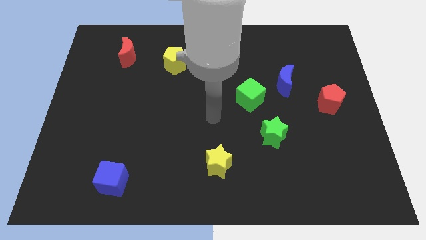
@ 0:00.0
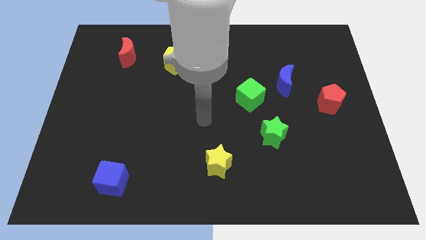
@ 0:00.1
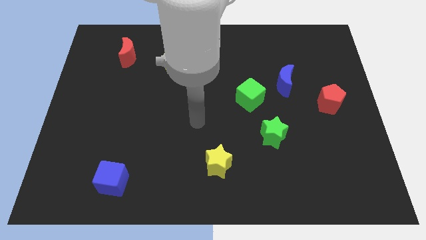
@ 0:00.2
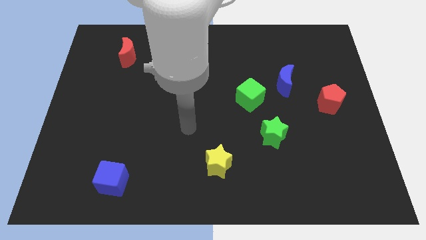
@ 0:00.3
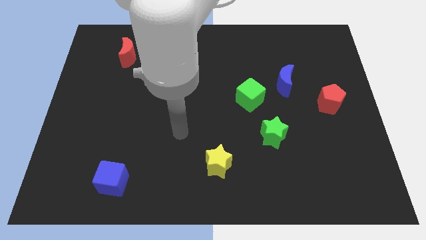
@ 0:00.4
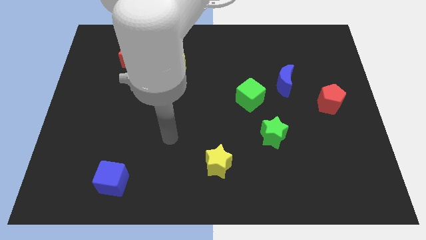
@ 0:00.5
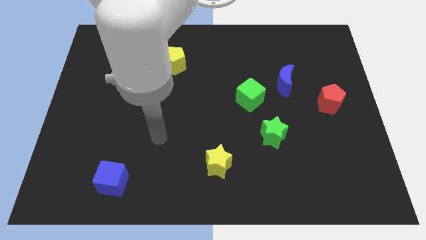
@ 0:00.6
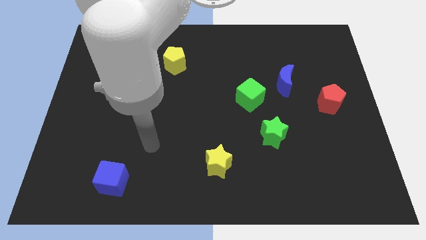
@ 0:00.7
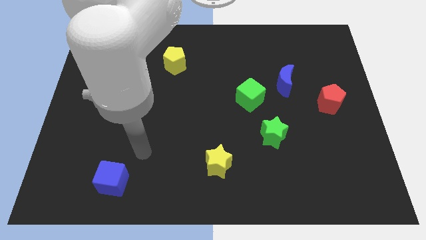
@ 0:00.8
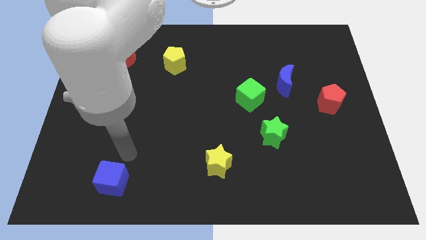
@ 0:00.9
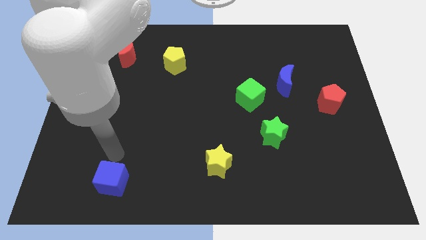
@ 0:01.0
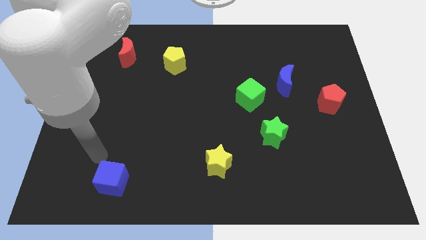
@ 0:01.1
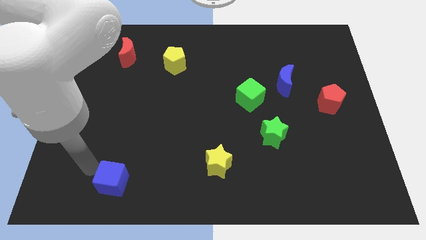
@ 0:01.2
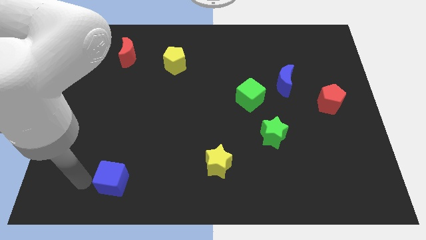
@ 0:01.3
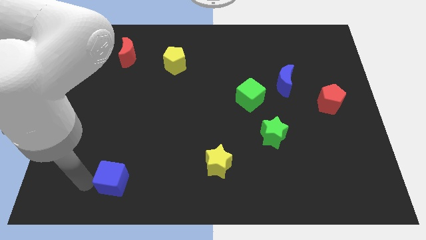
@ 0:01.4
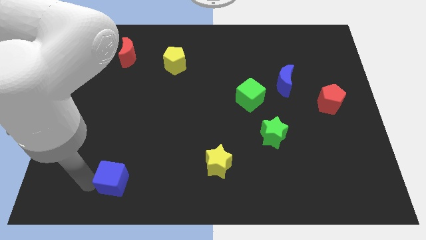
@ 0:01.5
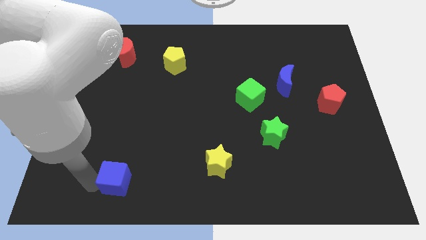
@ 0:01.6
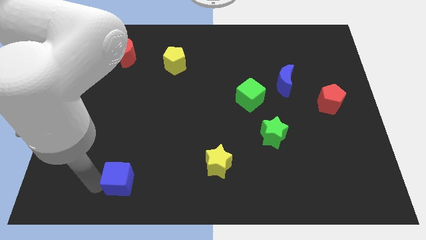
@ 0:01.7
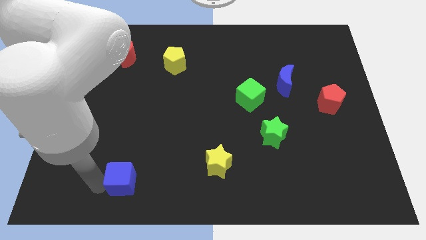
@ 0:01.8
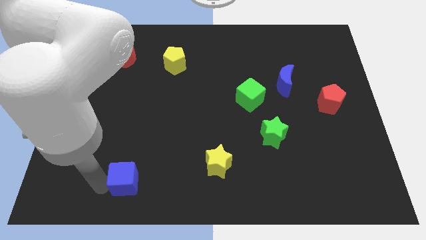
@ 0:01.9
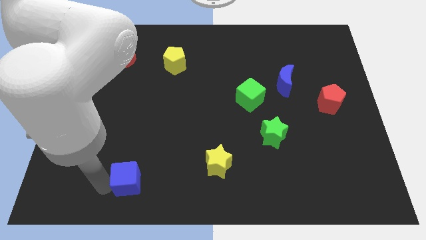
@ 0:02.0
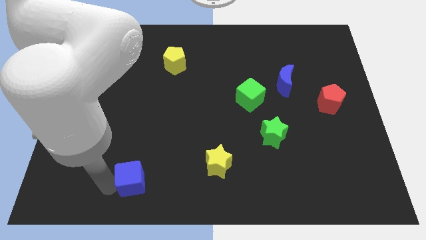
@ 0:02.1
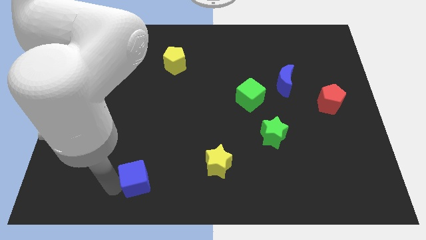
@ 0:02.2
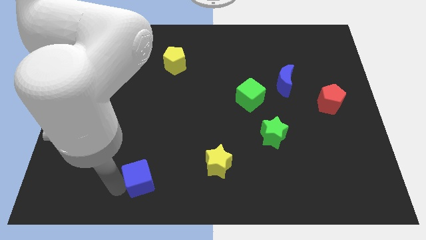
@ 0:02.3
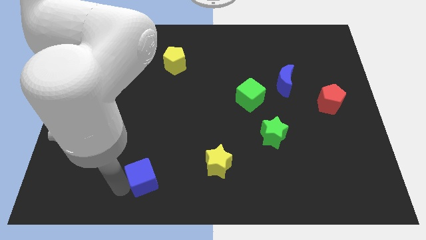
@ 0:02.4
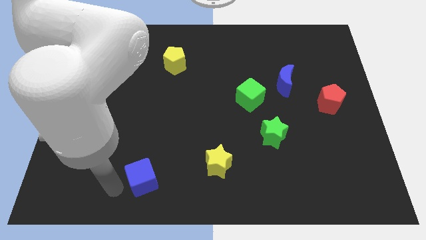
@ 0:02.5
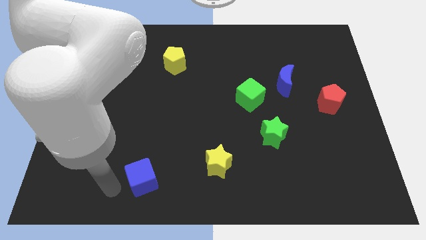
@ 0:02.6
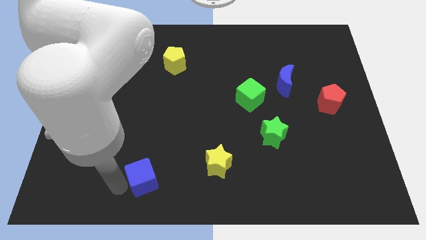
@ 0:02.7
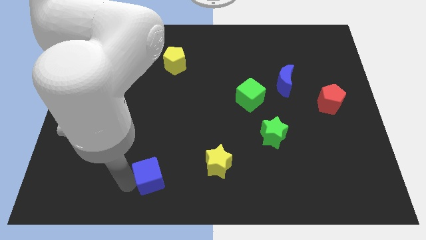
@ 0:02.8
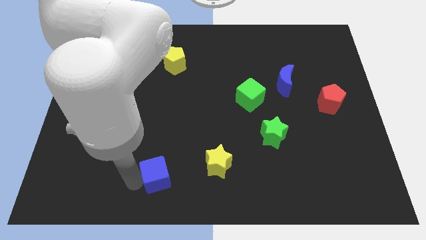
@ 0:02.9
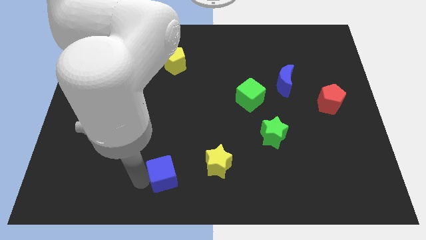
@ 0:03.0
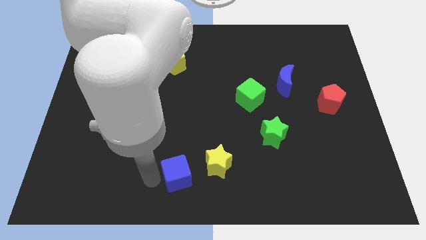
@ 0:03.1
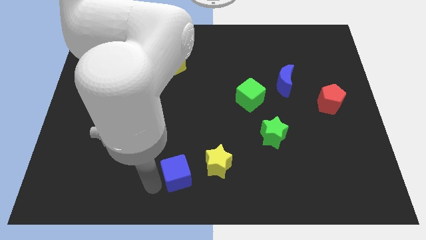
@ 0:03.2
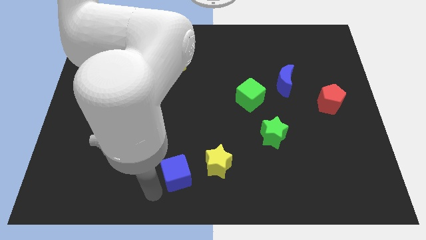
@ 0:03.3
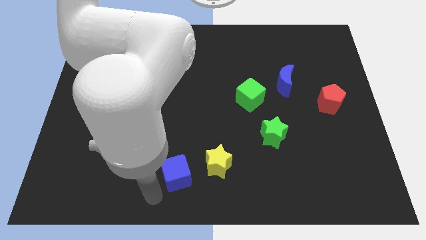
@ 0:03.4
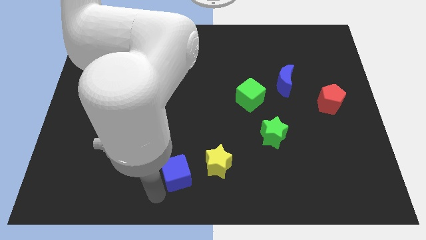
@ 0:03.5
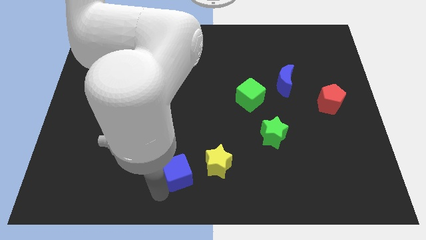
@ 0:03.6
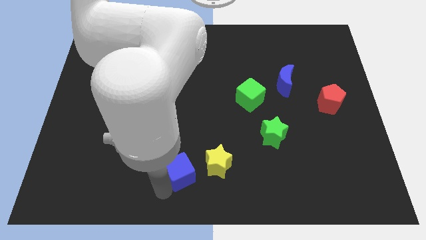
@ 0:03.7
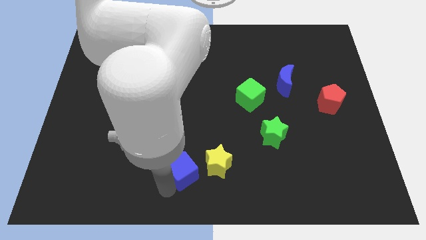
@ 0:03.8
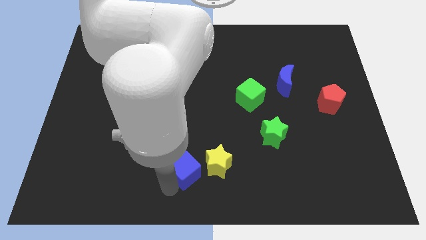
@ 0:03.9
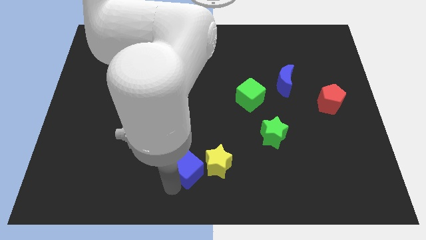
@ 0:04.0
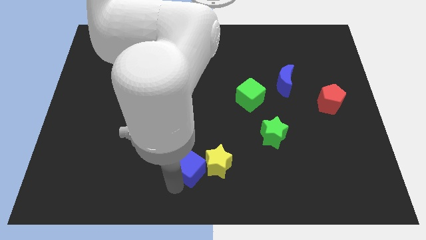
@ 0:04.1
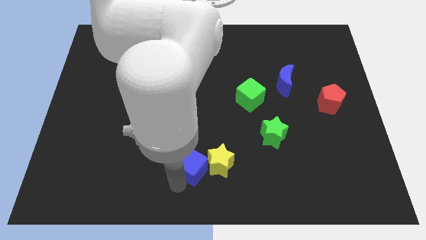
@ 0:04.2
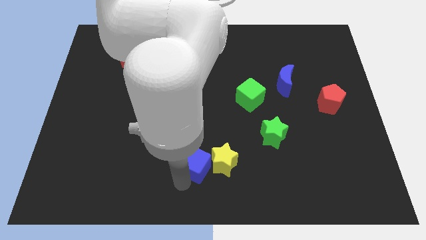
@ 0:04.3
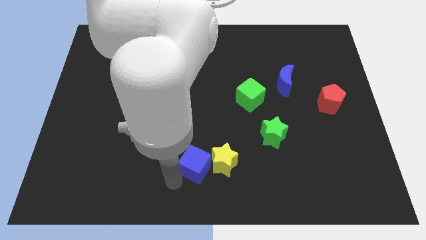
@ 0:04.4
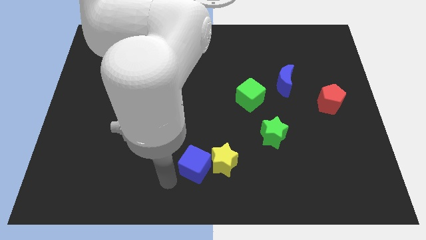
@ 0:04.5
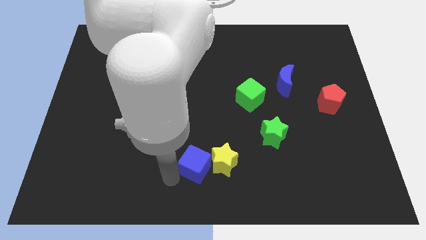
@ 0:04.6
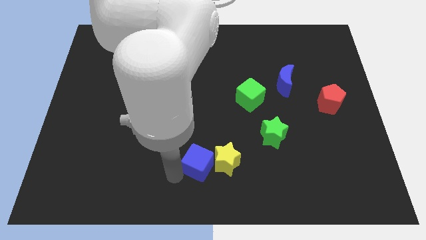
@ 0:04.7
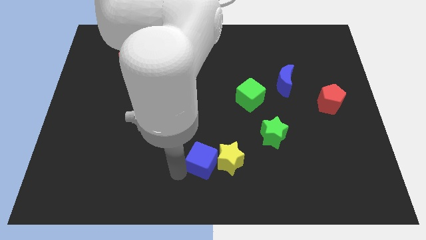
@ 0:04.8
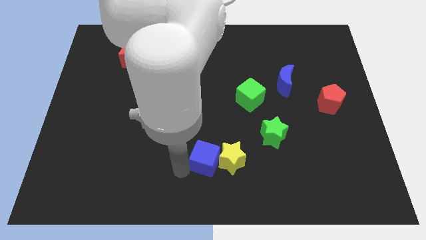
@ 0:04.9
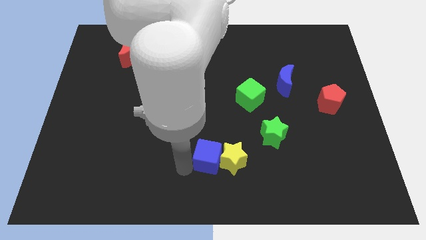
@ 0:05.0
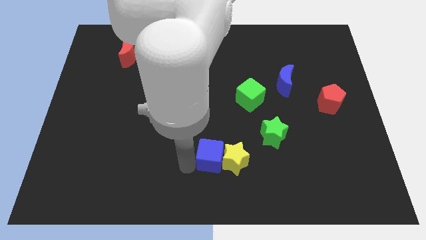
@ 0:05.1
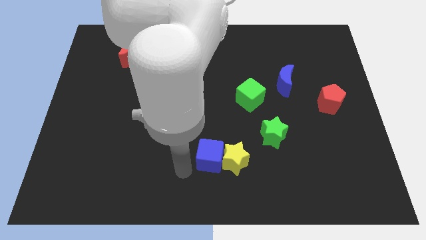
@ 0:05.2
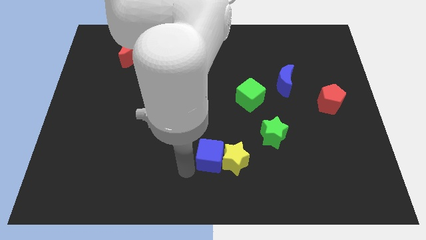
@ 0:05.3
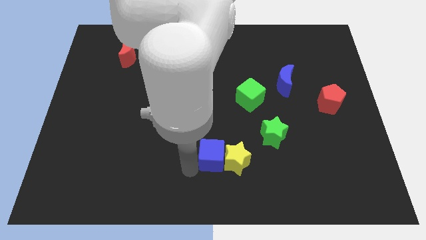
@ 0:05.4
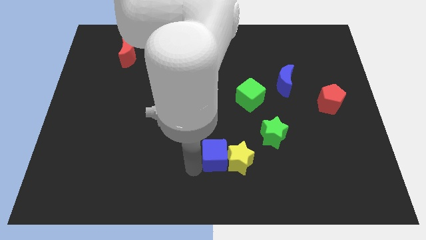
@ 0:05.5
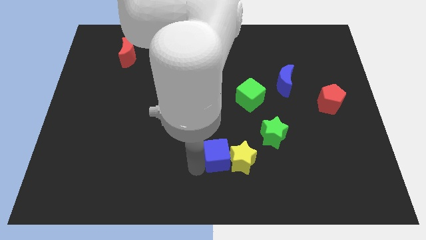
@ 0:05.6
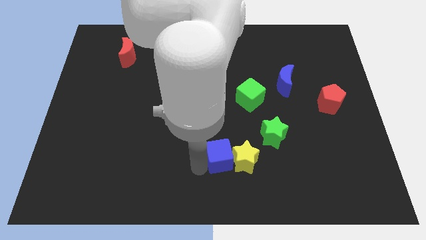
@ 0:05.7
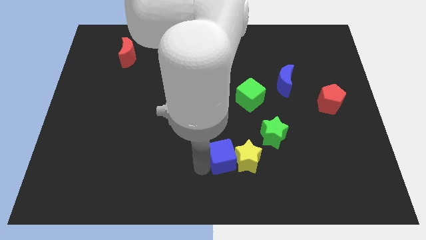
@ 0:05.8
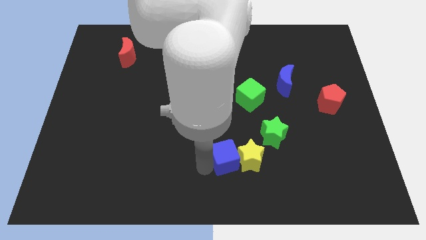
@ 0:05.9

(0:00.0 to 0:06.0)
move the blue cube diagonally down and to the left of the green star
